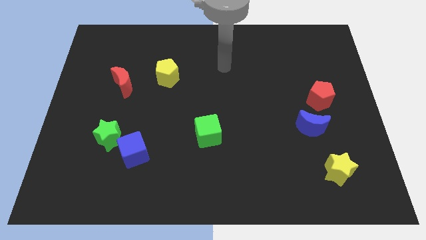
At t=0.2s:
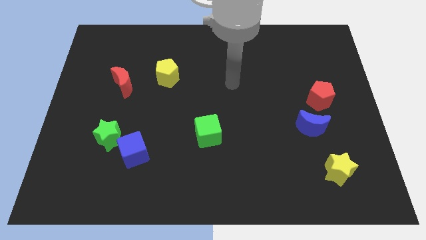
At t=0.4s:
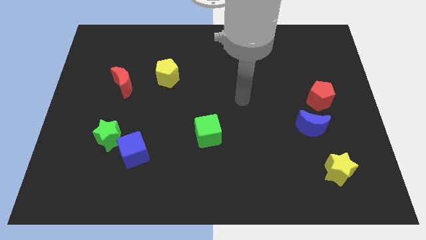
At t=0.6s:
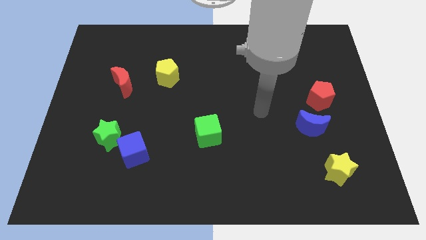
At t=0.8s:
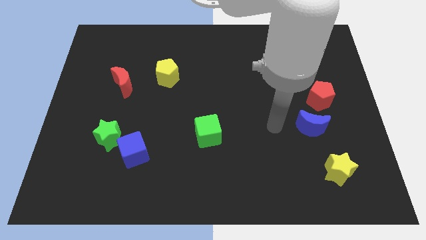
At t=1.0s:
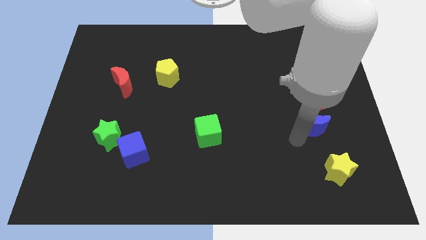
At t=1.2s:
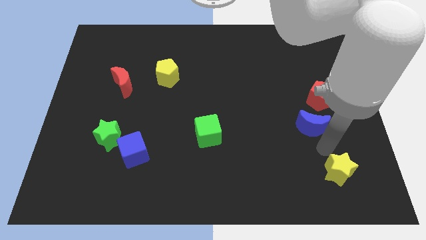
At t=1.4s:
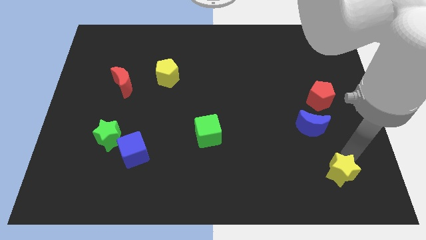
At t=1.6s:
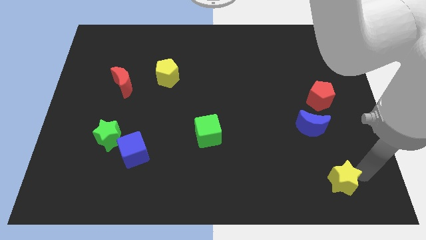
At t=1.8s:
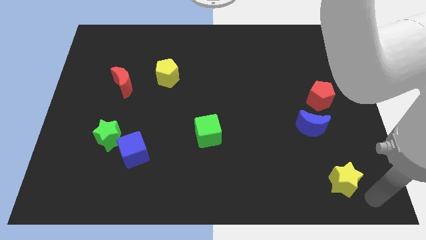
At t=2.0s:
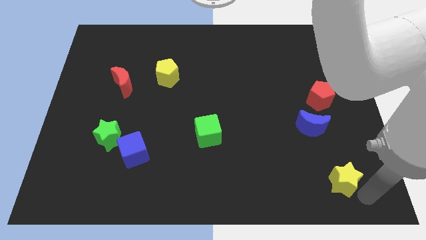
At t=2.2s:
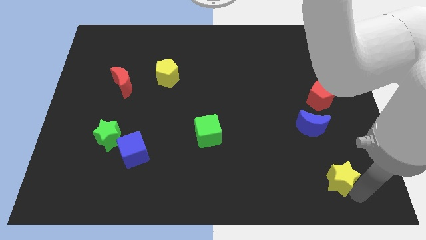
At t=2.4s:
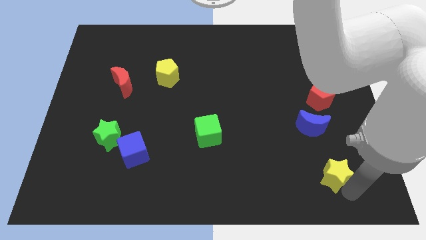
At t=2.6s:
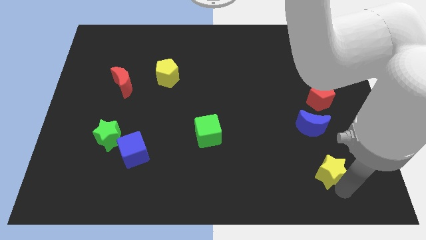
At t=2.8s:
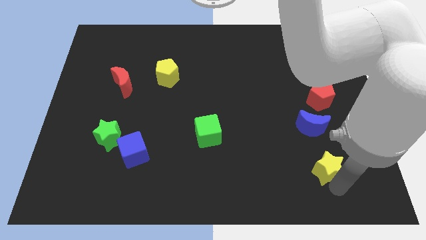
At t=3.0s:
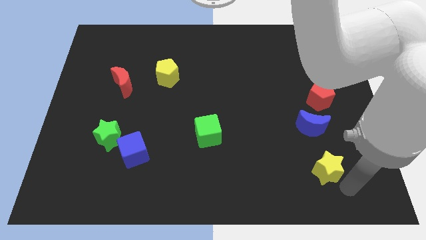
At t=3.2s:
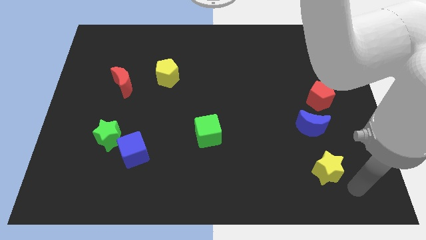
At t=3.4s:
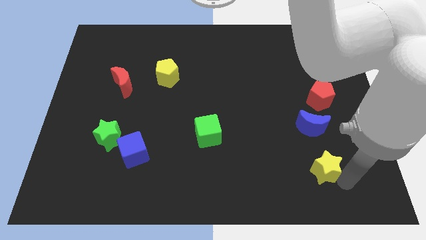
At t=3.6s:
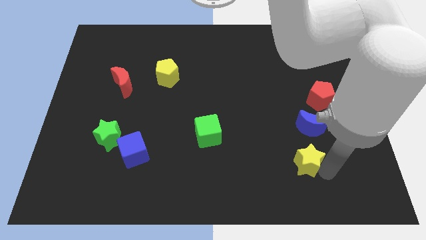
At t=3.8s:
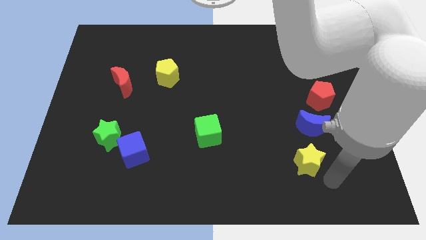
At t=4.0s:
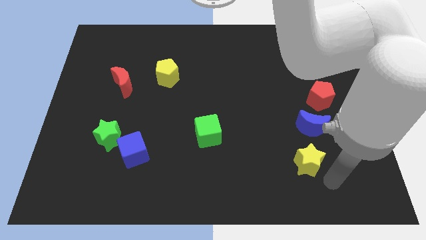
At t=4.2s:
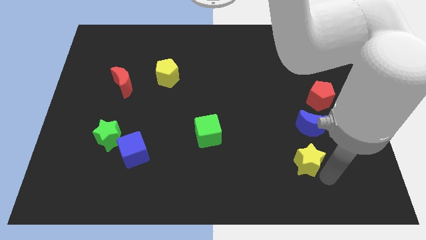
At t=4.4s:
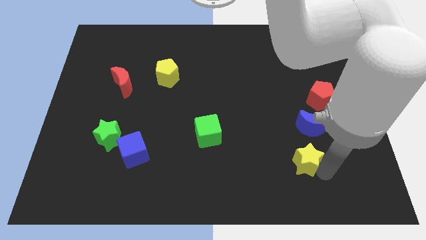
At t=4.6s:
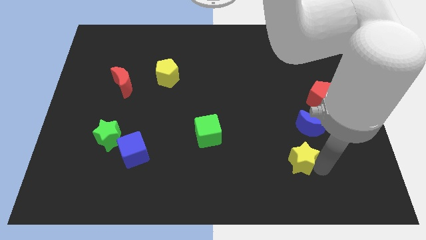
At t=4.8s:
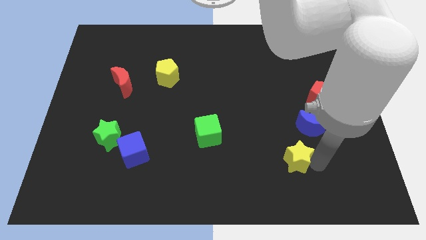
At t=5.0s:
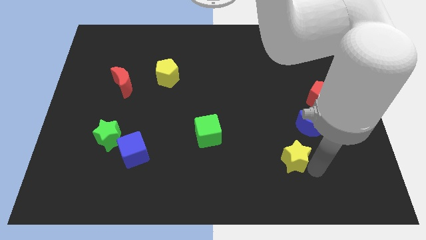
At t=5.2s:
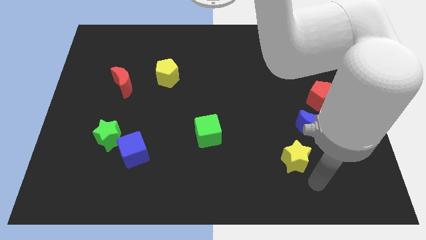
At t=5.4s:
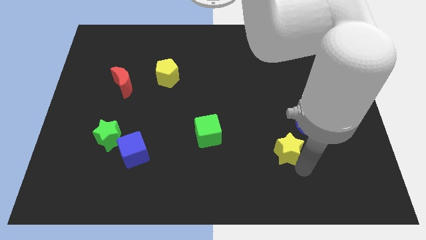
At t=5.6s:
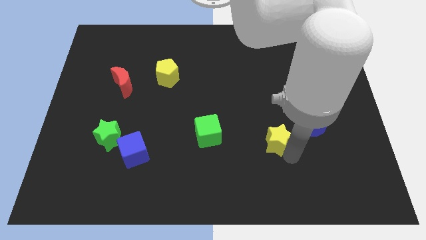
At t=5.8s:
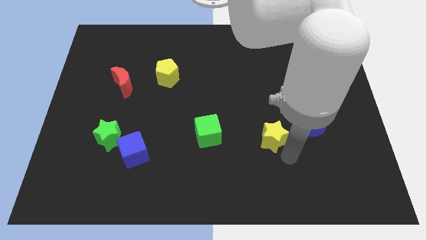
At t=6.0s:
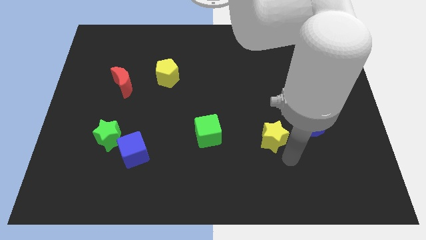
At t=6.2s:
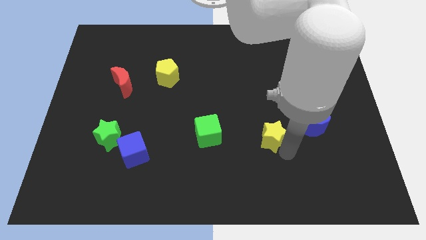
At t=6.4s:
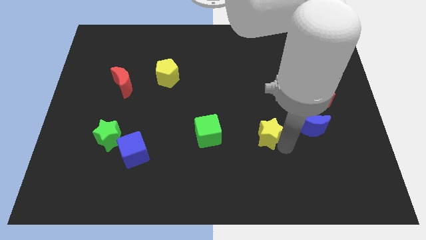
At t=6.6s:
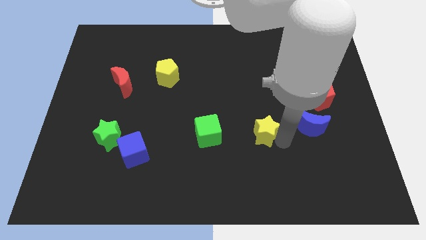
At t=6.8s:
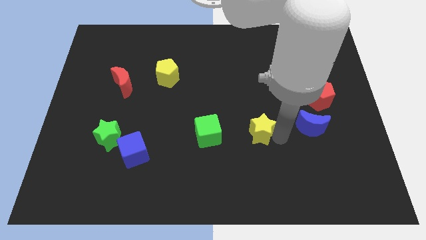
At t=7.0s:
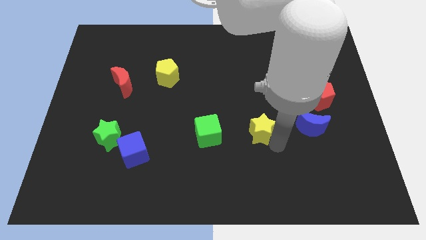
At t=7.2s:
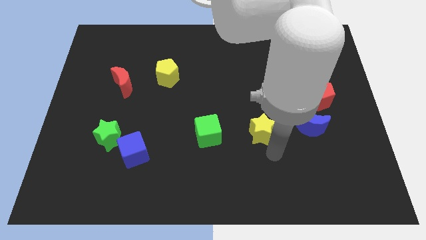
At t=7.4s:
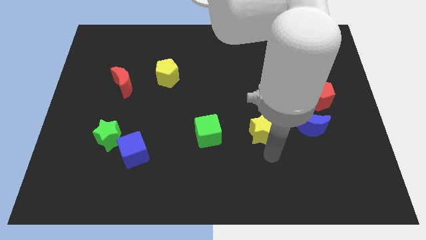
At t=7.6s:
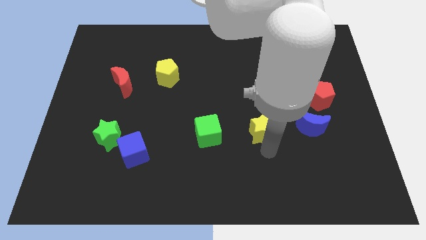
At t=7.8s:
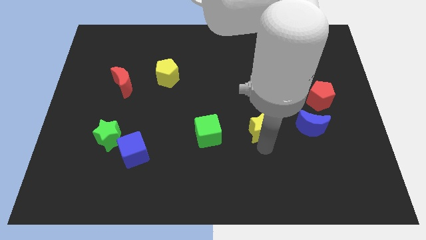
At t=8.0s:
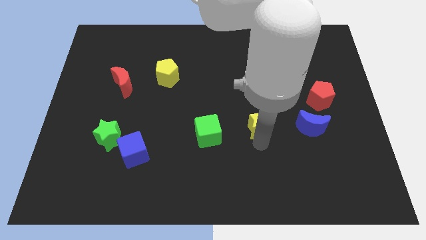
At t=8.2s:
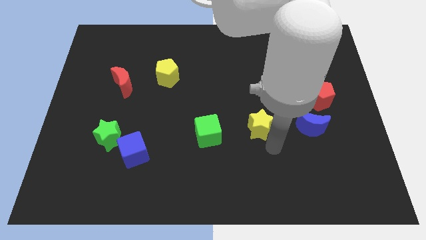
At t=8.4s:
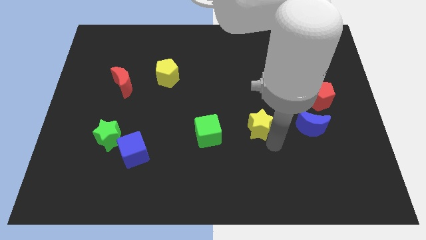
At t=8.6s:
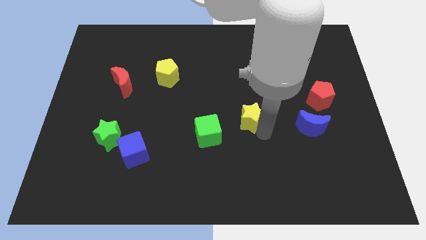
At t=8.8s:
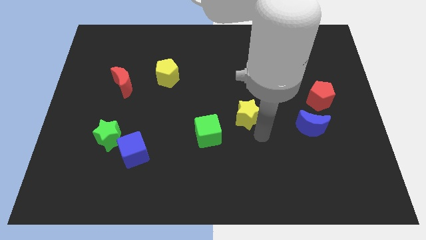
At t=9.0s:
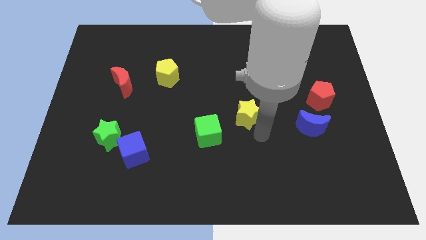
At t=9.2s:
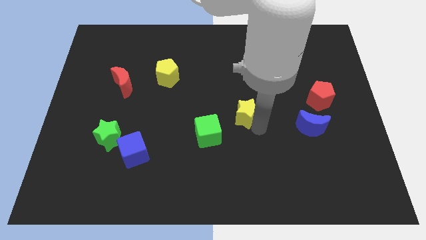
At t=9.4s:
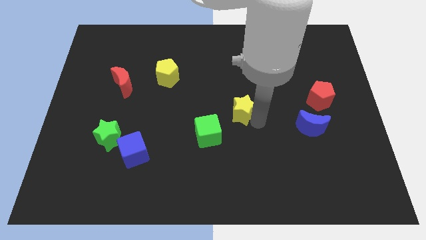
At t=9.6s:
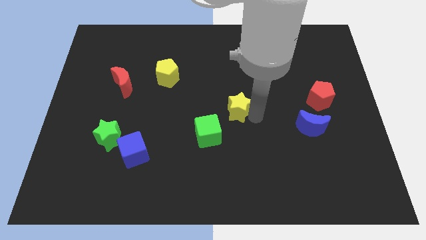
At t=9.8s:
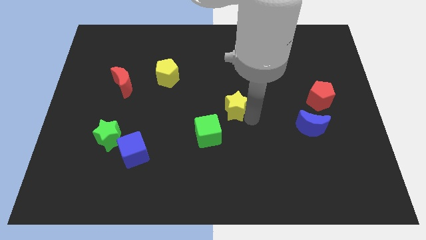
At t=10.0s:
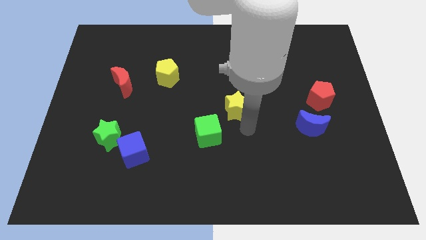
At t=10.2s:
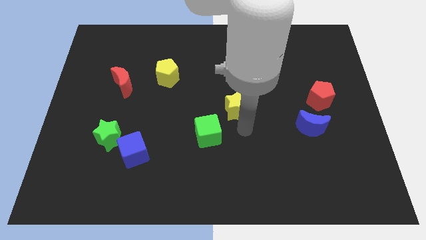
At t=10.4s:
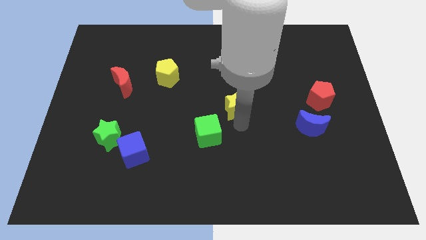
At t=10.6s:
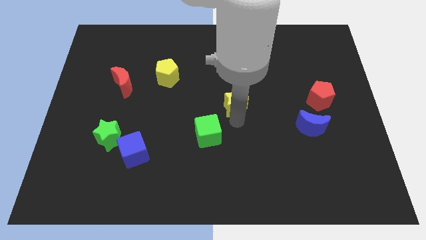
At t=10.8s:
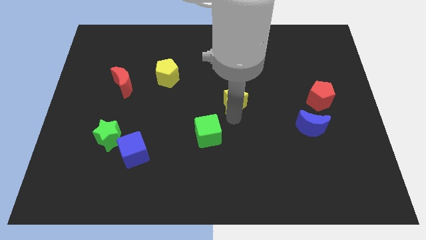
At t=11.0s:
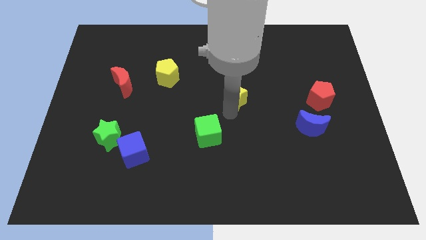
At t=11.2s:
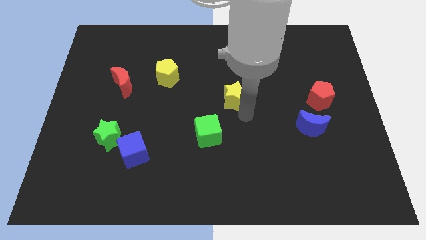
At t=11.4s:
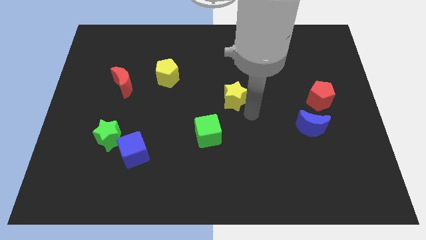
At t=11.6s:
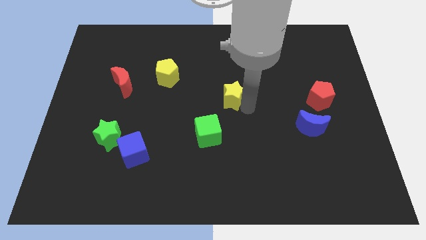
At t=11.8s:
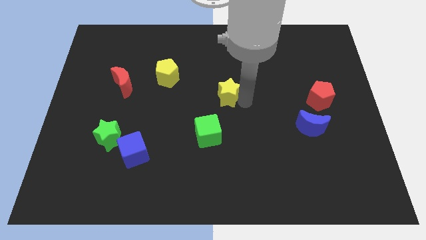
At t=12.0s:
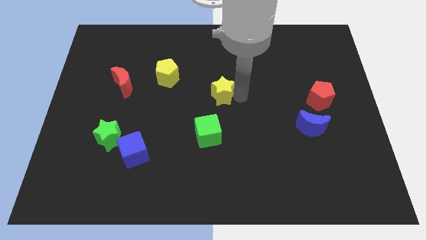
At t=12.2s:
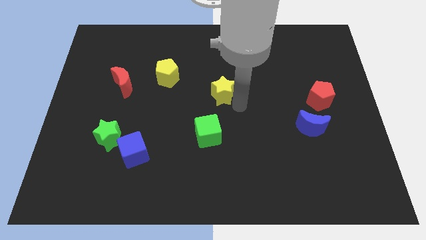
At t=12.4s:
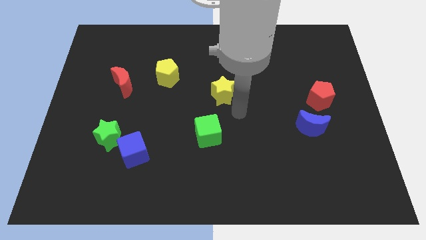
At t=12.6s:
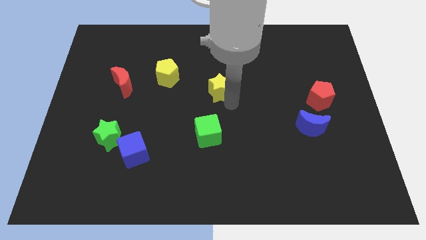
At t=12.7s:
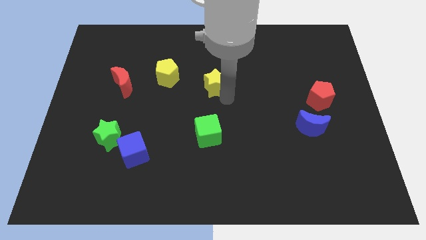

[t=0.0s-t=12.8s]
move the yellow star to the right of the yellow pentagon

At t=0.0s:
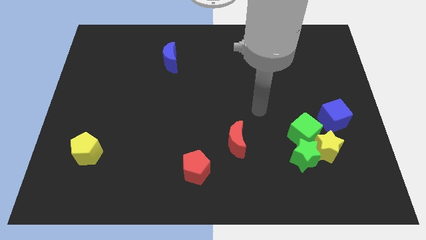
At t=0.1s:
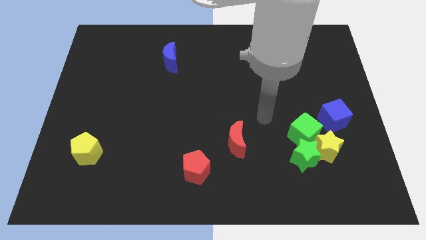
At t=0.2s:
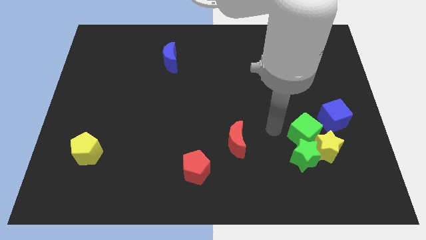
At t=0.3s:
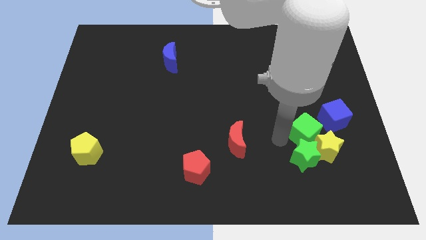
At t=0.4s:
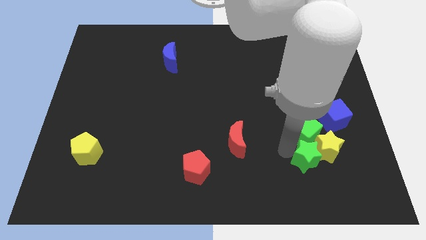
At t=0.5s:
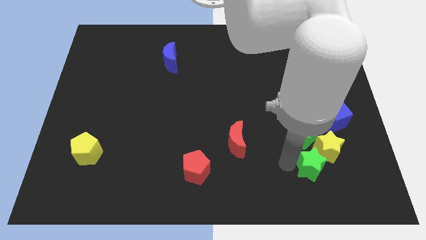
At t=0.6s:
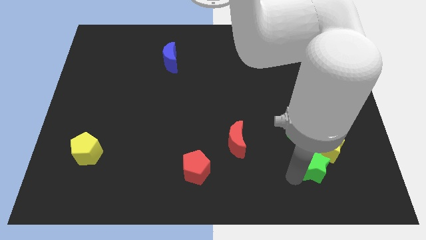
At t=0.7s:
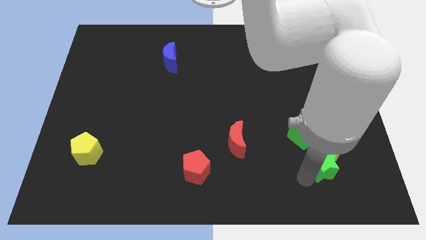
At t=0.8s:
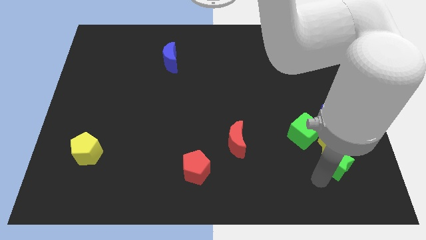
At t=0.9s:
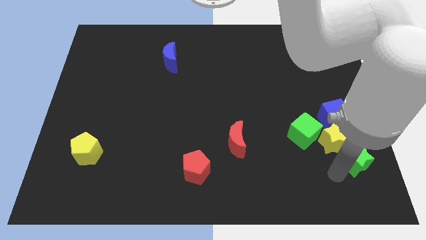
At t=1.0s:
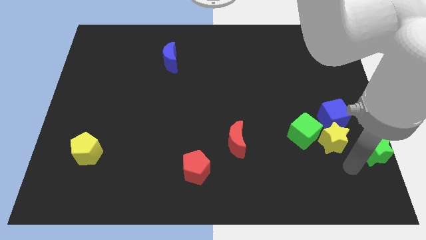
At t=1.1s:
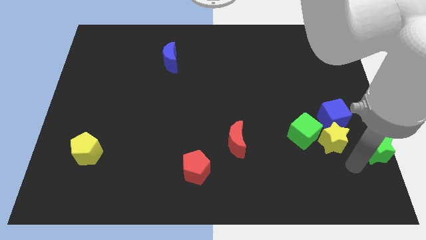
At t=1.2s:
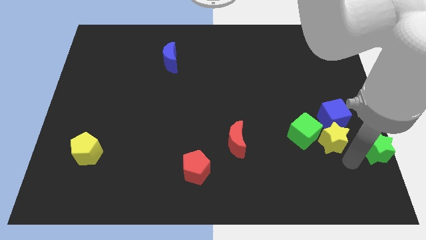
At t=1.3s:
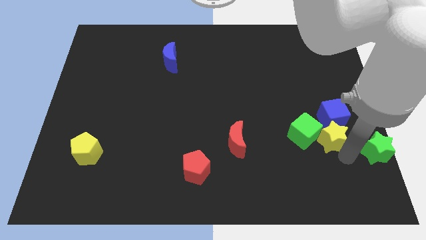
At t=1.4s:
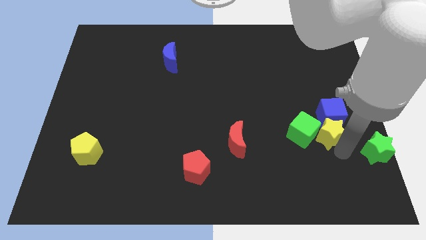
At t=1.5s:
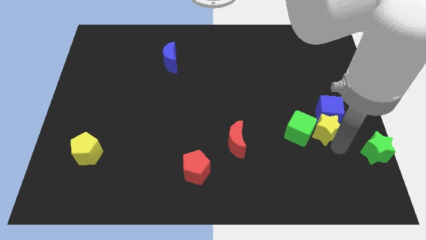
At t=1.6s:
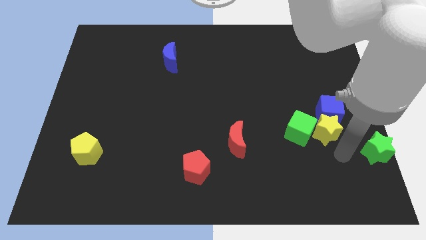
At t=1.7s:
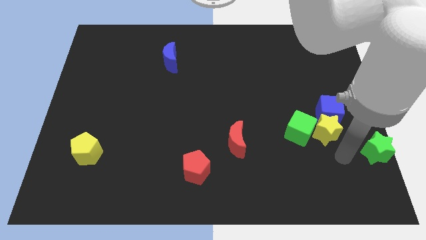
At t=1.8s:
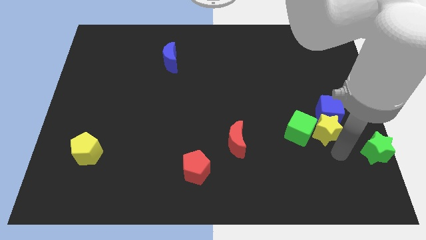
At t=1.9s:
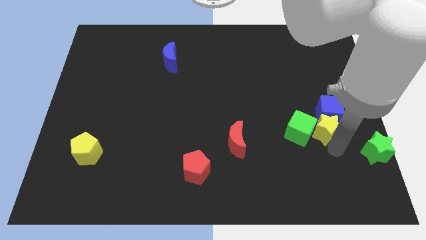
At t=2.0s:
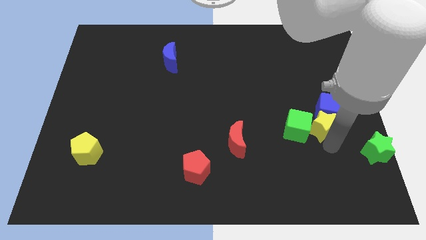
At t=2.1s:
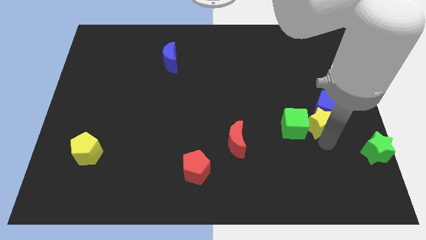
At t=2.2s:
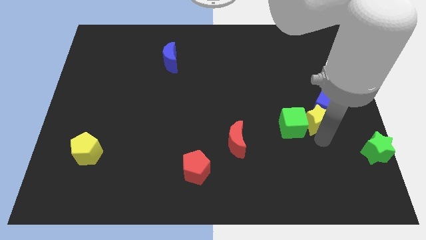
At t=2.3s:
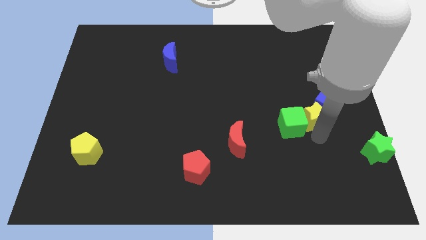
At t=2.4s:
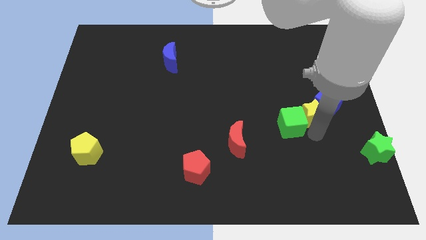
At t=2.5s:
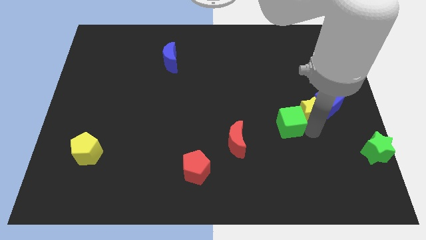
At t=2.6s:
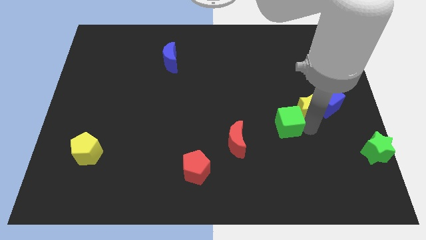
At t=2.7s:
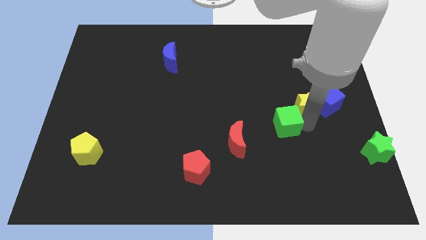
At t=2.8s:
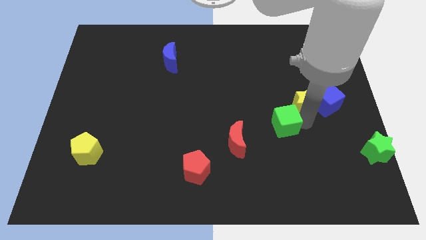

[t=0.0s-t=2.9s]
move the yellow star diagonally up and to the left of the blue cube
